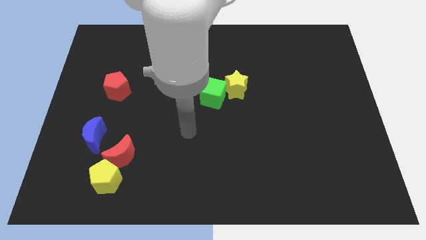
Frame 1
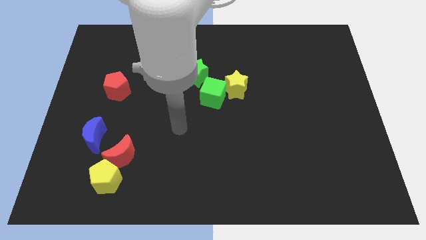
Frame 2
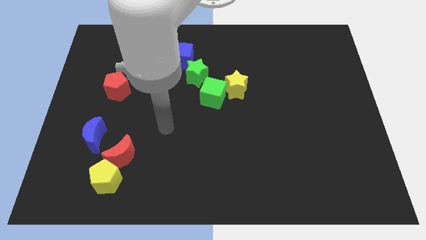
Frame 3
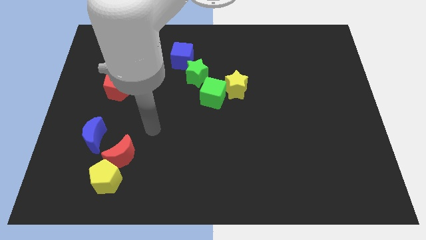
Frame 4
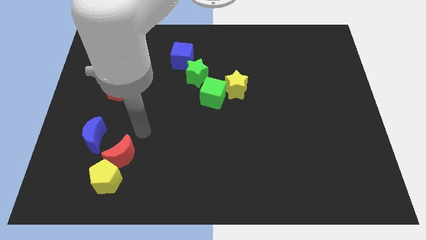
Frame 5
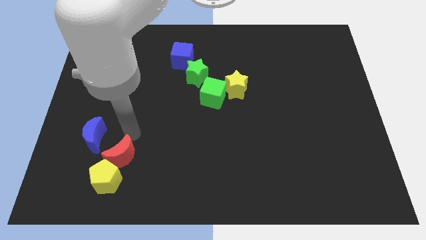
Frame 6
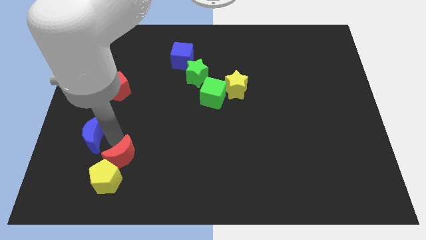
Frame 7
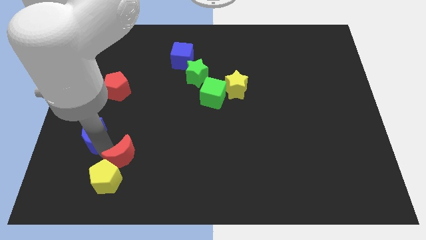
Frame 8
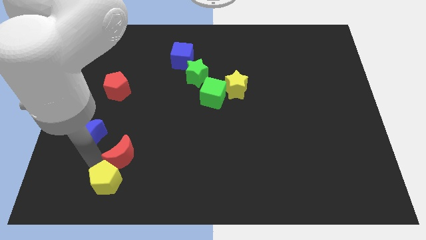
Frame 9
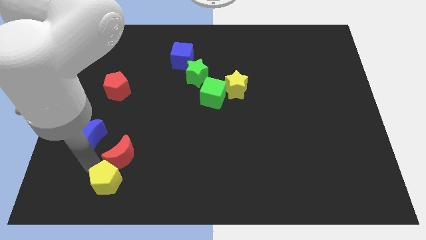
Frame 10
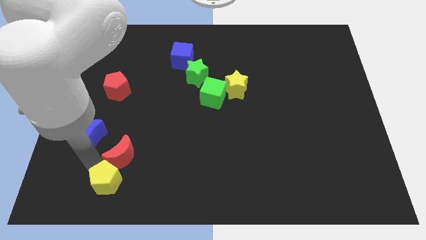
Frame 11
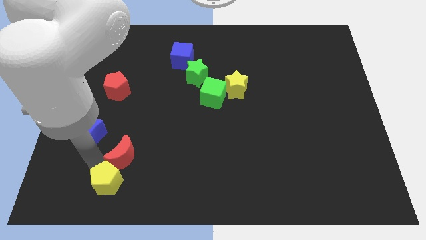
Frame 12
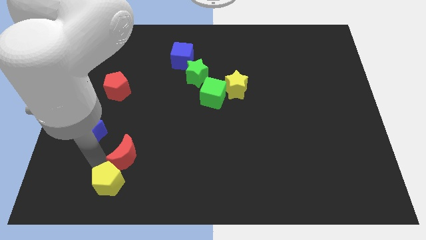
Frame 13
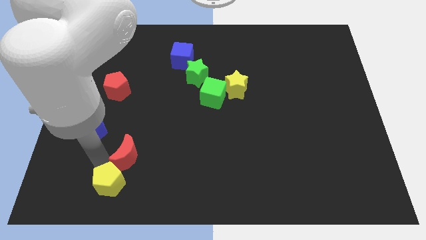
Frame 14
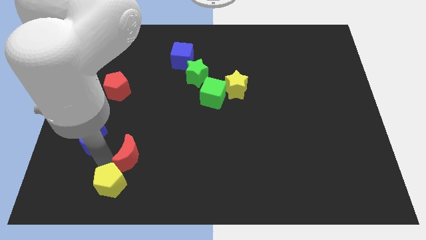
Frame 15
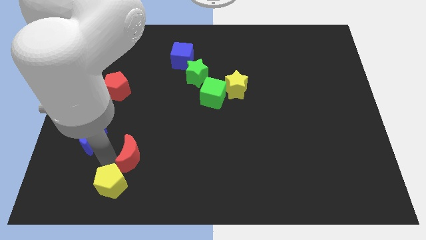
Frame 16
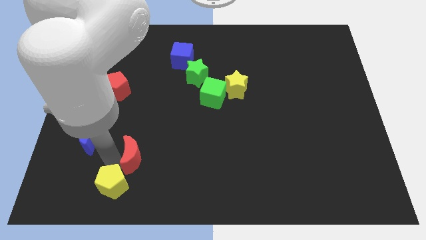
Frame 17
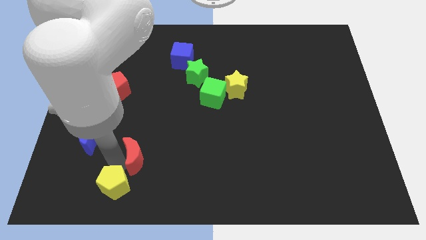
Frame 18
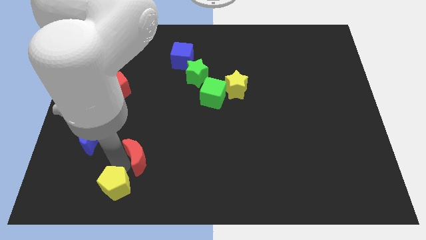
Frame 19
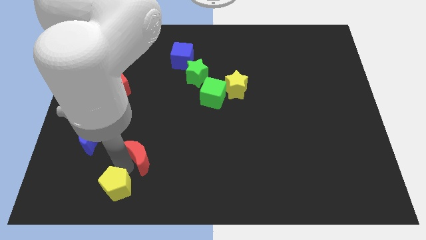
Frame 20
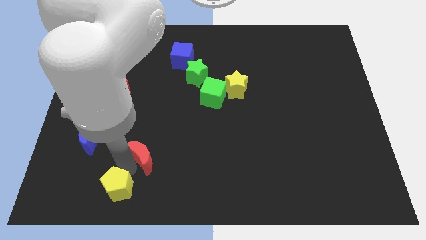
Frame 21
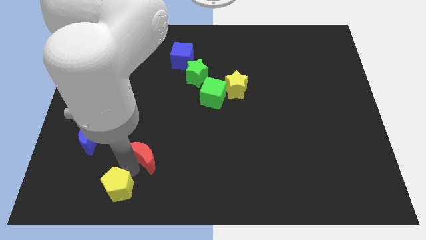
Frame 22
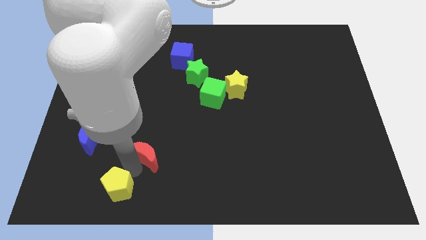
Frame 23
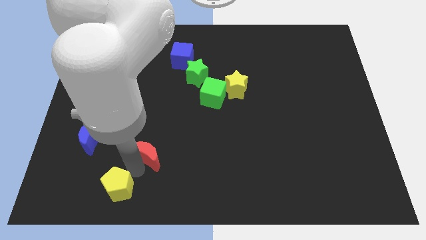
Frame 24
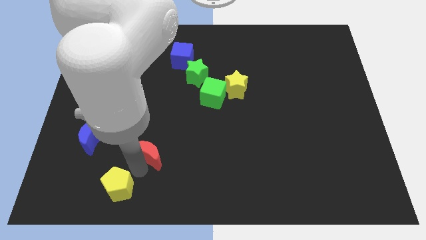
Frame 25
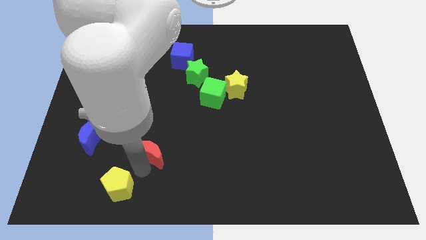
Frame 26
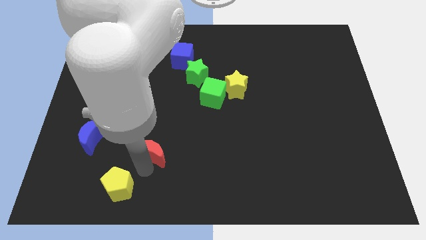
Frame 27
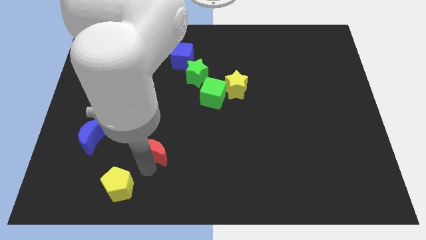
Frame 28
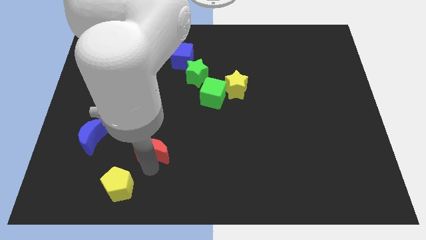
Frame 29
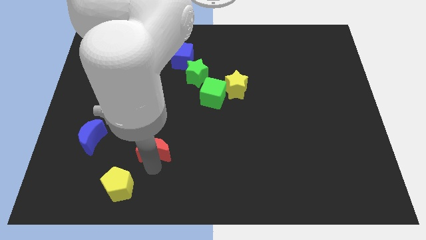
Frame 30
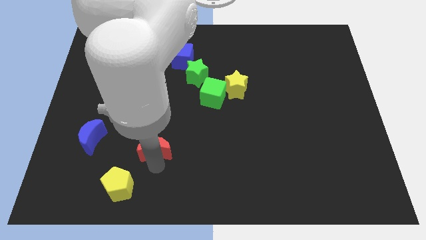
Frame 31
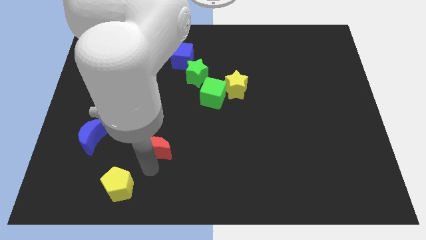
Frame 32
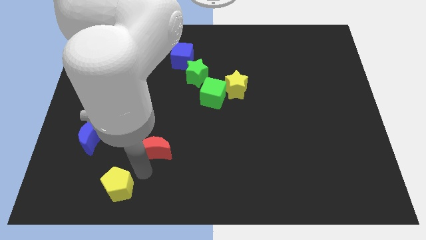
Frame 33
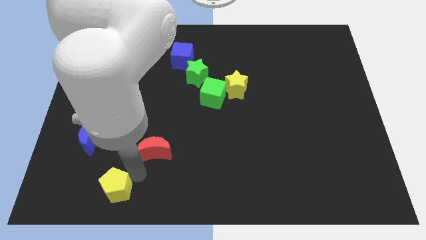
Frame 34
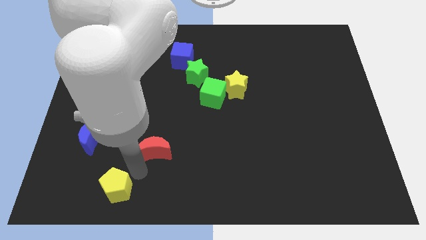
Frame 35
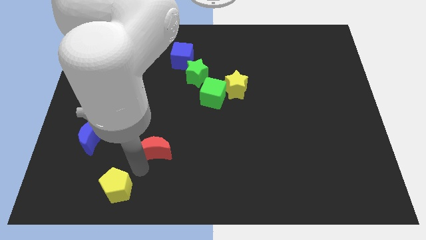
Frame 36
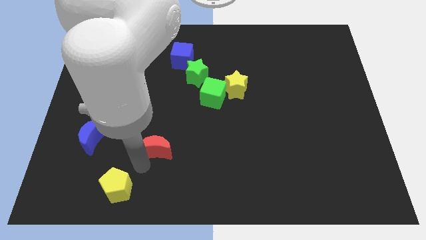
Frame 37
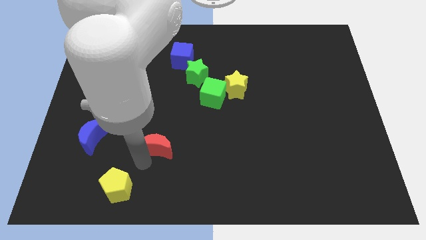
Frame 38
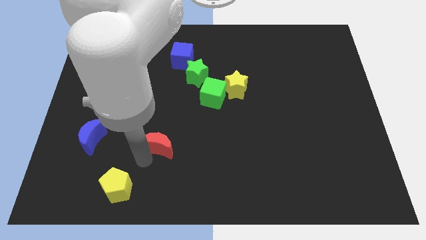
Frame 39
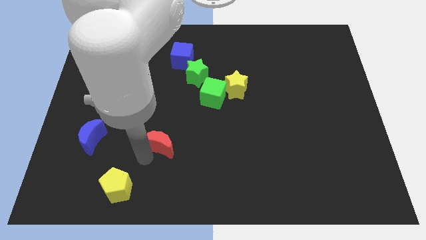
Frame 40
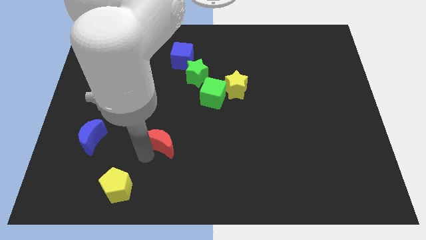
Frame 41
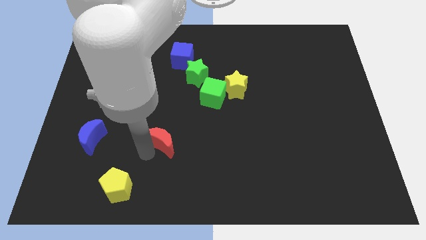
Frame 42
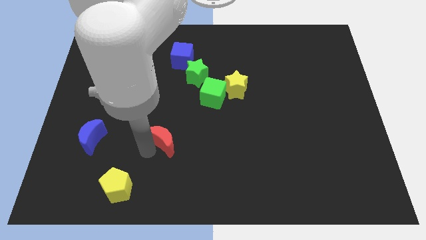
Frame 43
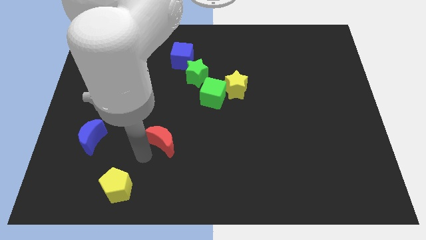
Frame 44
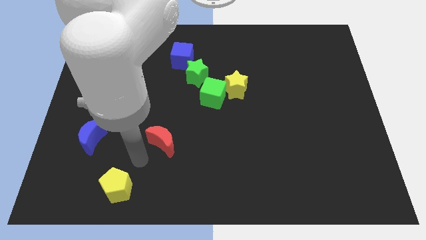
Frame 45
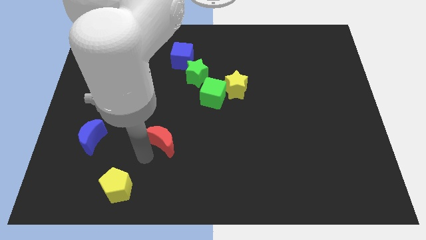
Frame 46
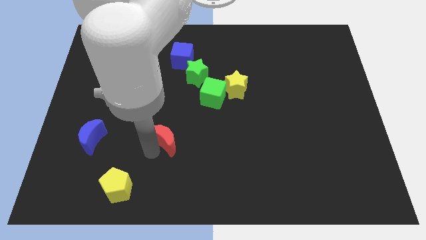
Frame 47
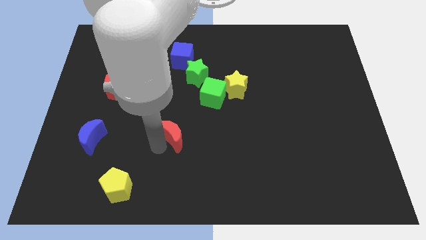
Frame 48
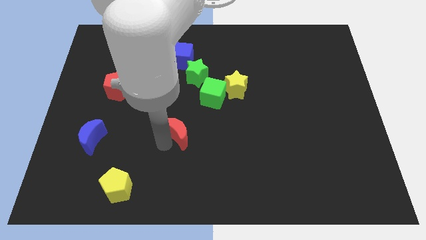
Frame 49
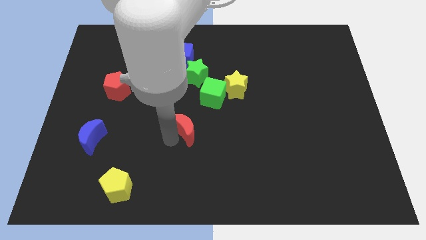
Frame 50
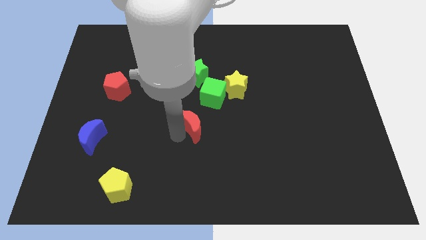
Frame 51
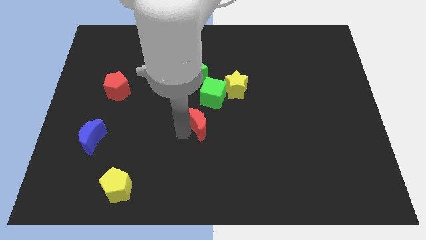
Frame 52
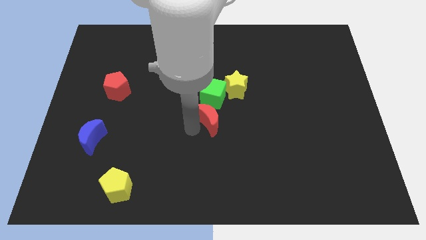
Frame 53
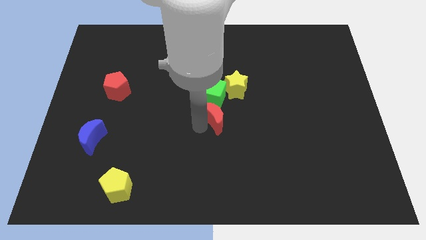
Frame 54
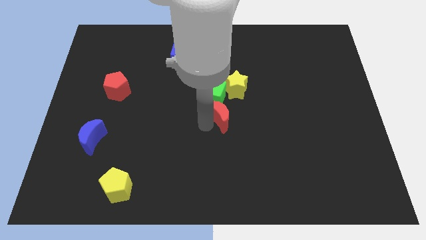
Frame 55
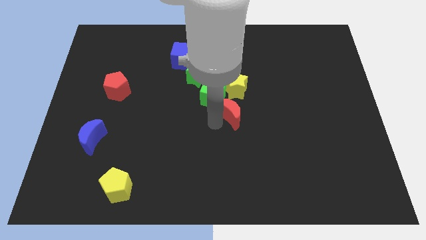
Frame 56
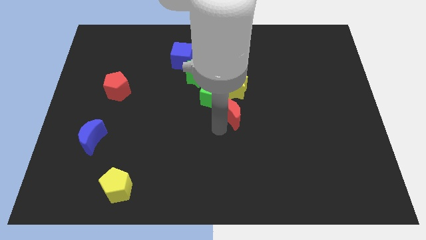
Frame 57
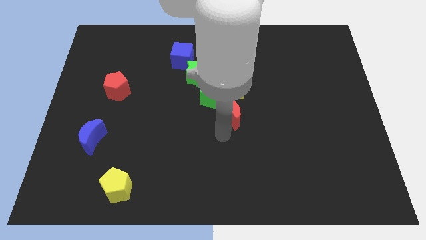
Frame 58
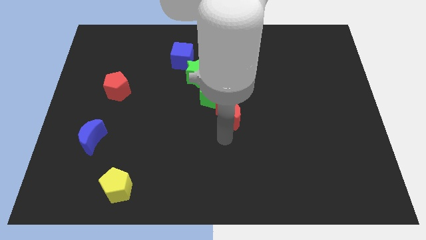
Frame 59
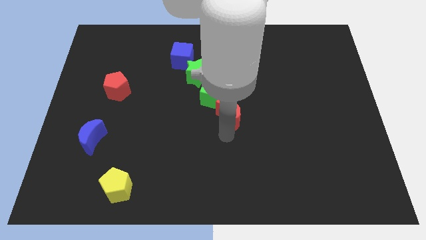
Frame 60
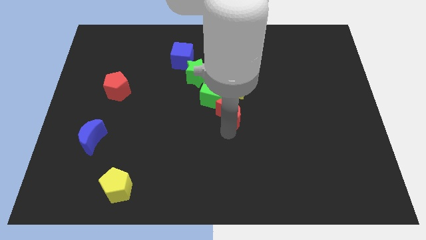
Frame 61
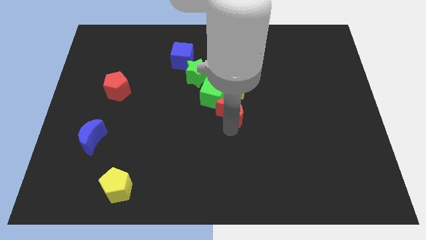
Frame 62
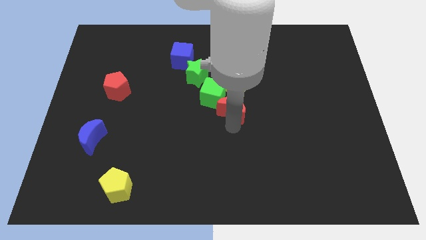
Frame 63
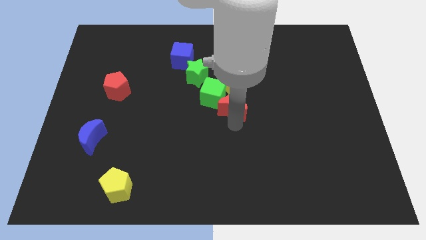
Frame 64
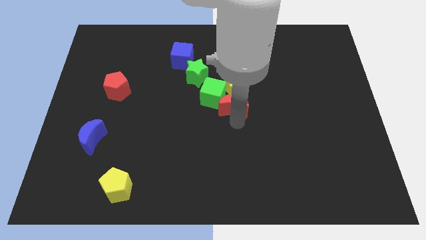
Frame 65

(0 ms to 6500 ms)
move the red moon to the yellow star
